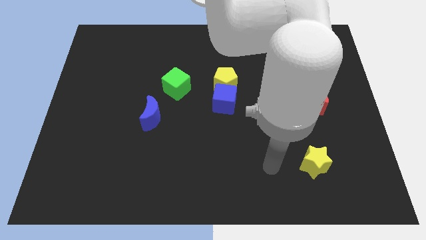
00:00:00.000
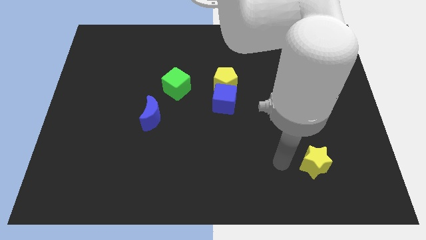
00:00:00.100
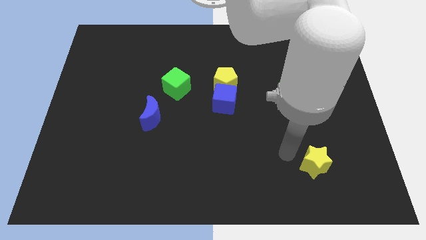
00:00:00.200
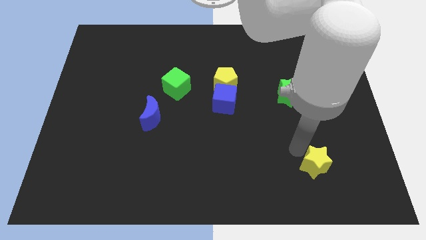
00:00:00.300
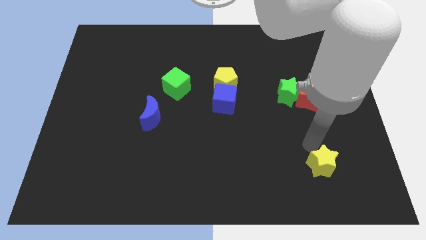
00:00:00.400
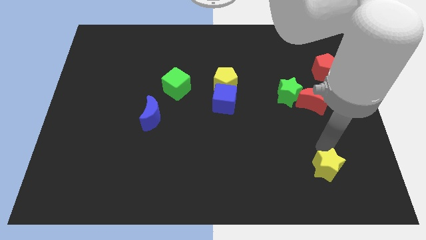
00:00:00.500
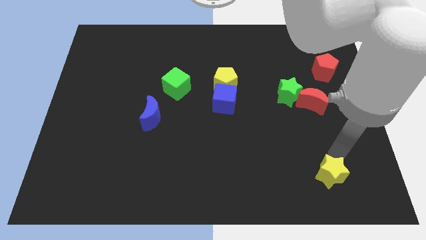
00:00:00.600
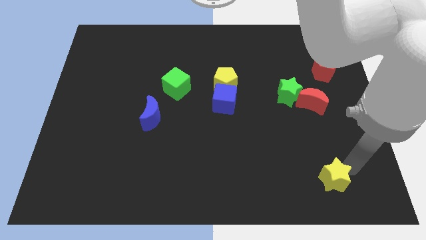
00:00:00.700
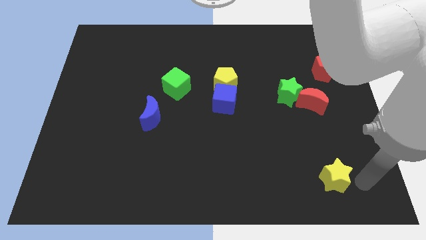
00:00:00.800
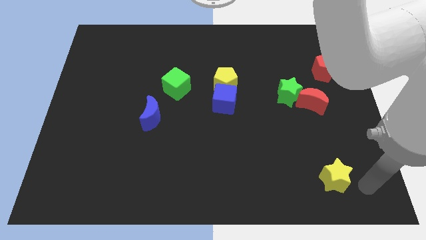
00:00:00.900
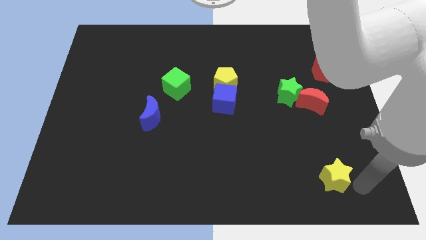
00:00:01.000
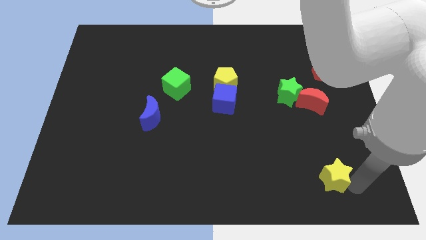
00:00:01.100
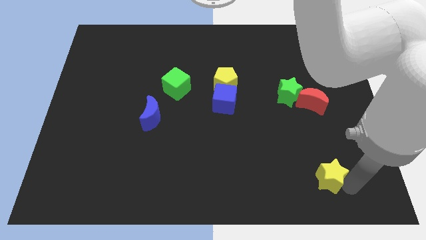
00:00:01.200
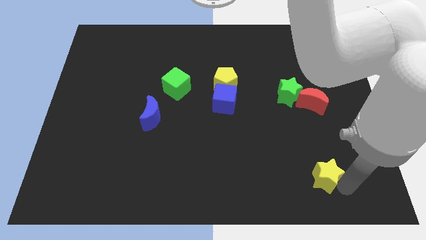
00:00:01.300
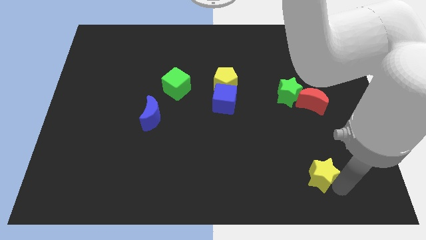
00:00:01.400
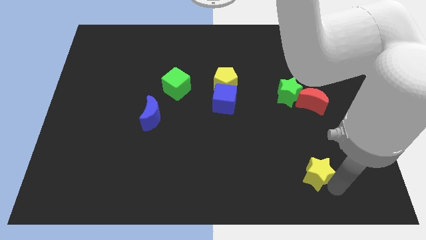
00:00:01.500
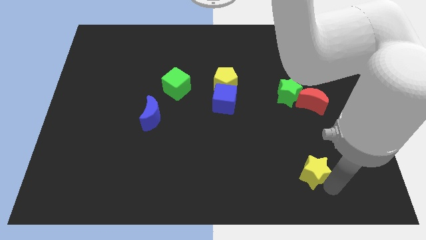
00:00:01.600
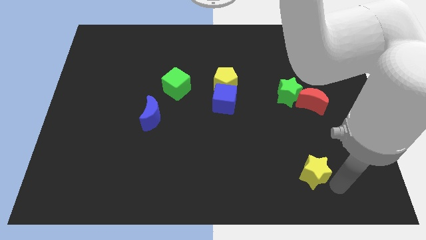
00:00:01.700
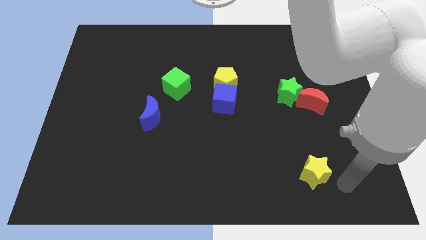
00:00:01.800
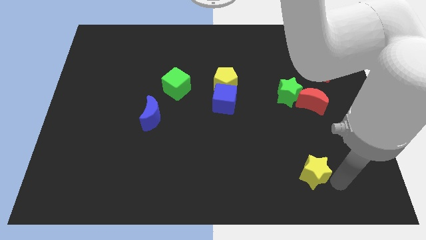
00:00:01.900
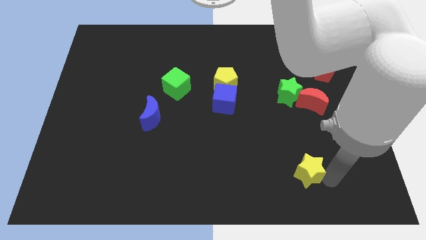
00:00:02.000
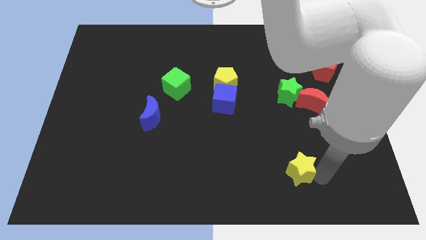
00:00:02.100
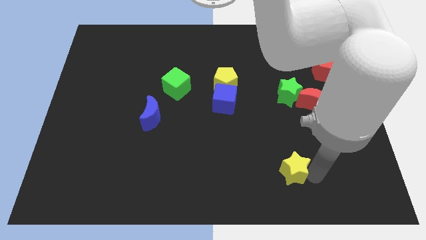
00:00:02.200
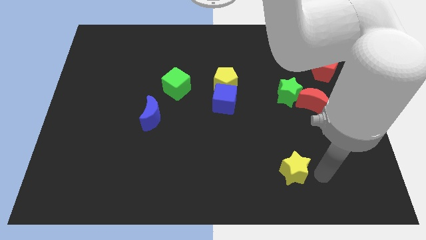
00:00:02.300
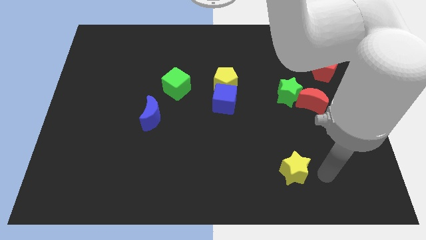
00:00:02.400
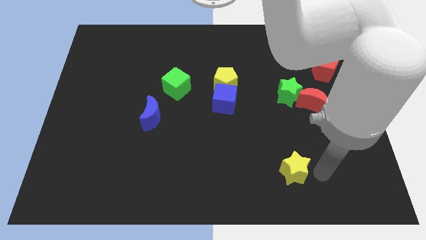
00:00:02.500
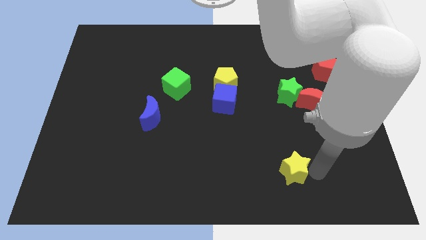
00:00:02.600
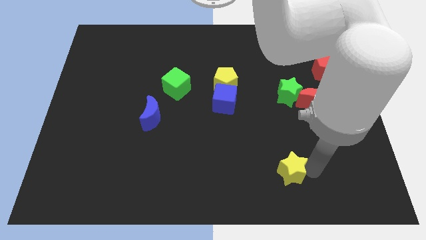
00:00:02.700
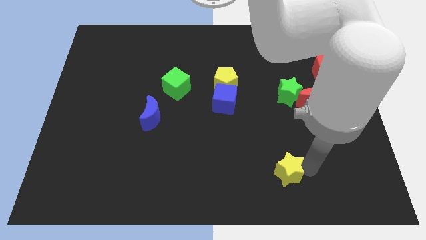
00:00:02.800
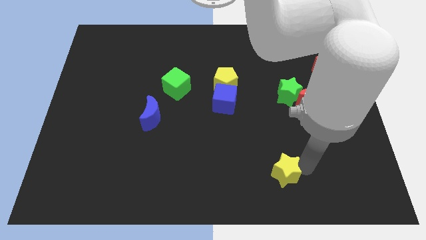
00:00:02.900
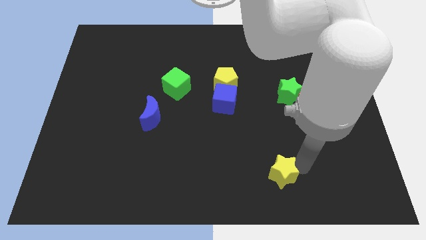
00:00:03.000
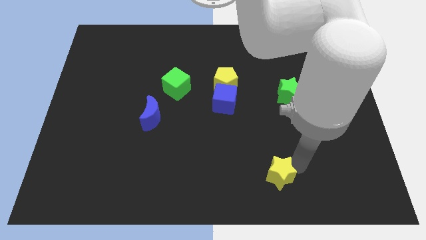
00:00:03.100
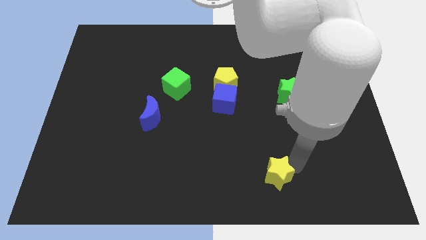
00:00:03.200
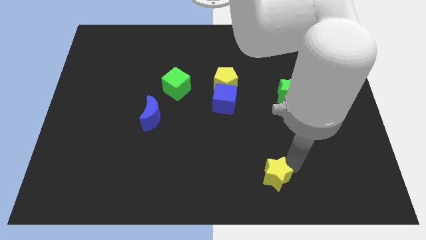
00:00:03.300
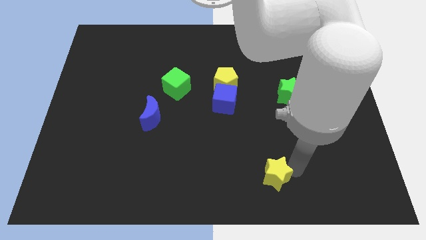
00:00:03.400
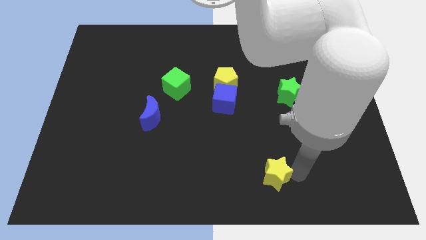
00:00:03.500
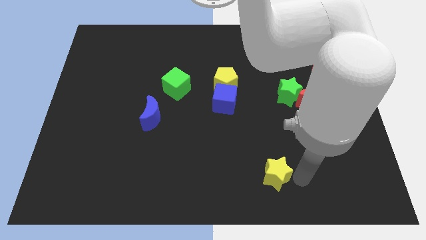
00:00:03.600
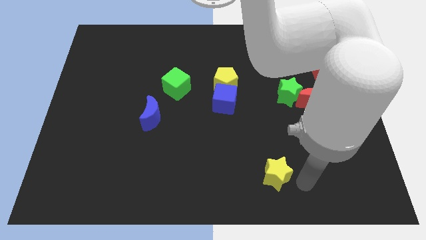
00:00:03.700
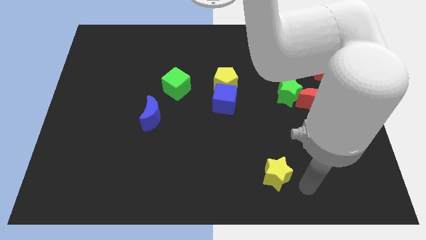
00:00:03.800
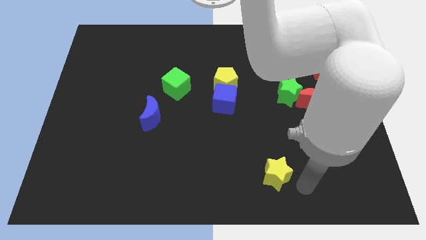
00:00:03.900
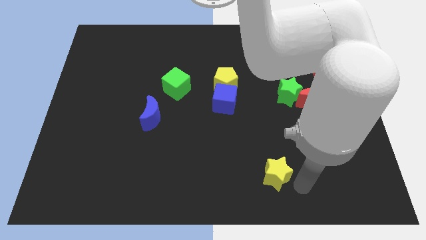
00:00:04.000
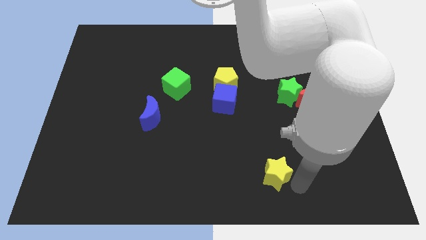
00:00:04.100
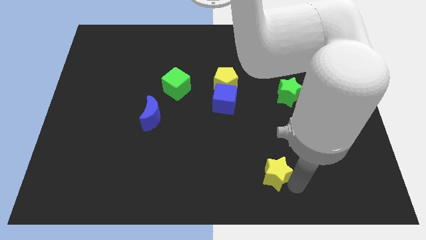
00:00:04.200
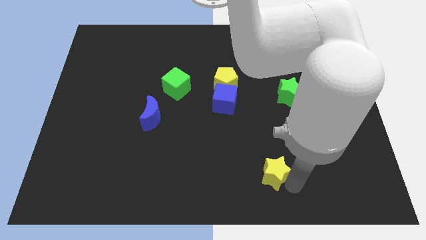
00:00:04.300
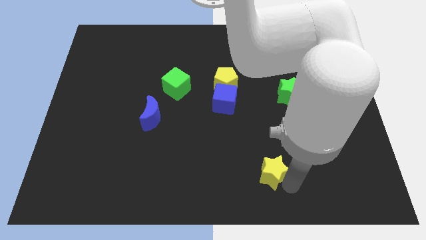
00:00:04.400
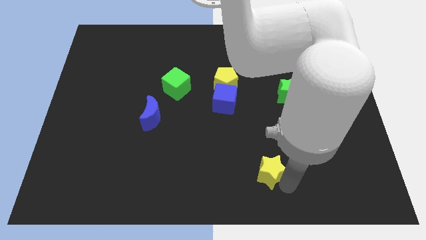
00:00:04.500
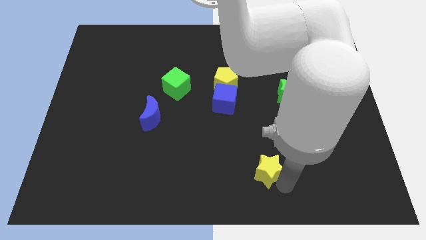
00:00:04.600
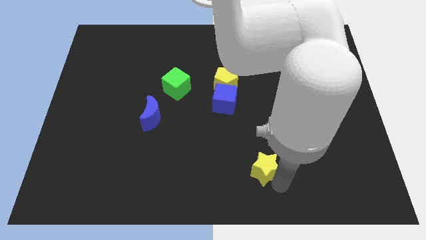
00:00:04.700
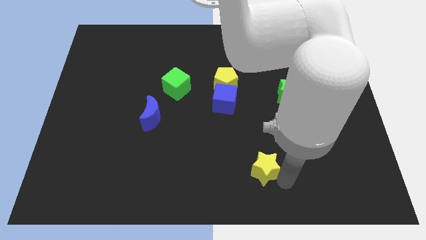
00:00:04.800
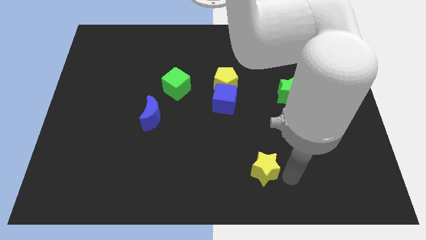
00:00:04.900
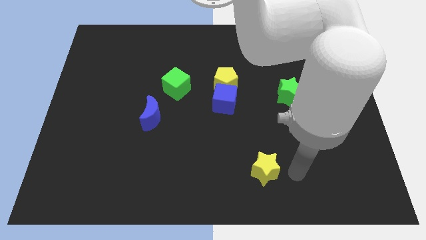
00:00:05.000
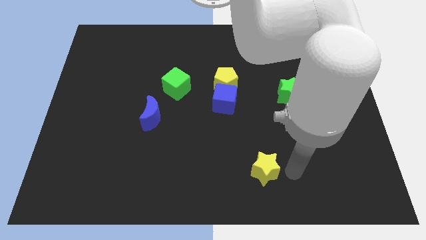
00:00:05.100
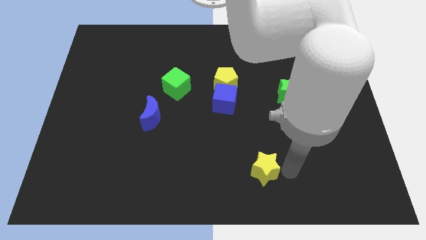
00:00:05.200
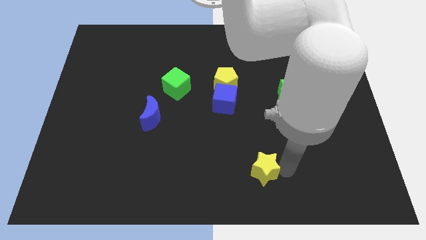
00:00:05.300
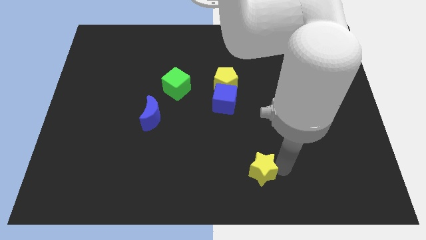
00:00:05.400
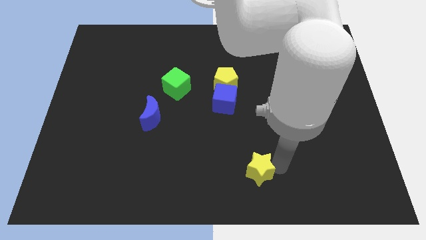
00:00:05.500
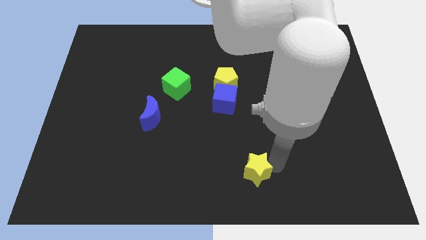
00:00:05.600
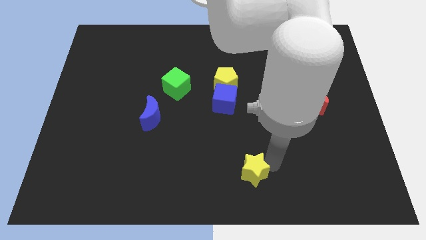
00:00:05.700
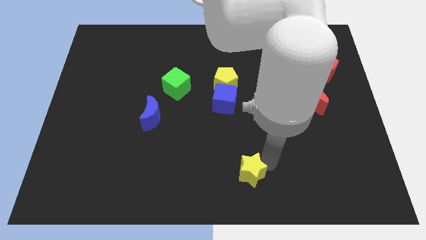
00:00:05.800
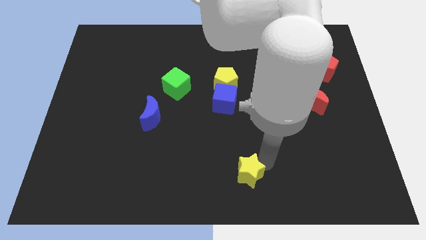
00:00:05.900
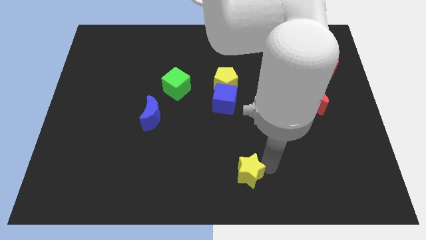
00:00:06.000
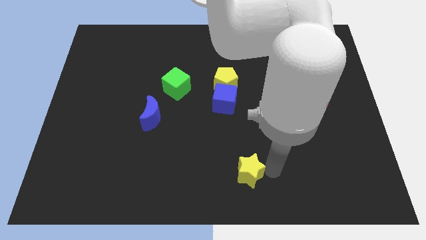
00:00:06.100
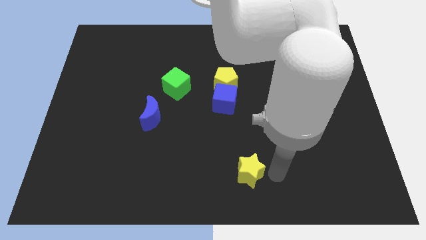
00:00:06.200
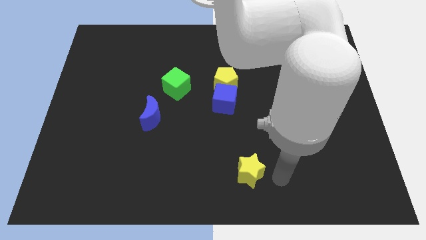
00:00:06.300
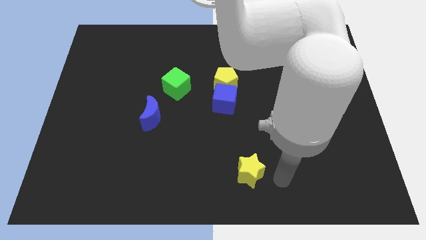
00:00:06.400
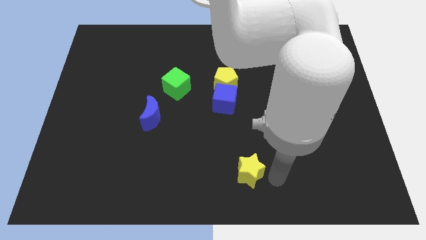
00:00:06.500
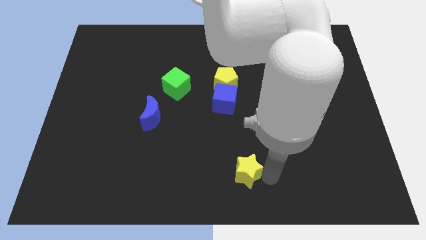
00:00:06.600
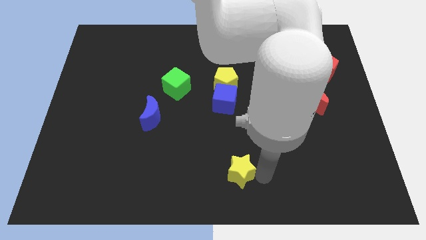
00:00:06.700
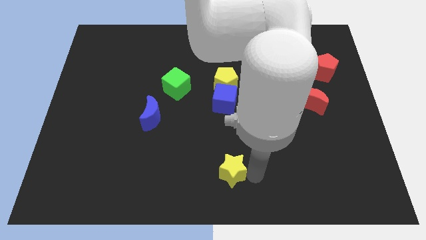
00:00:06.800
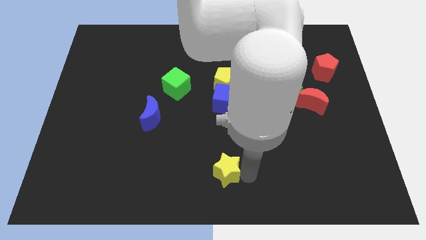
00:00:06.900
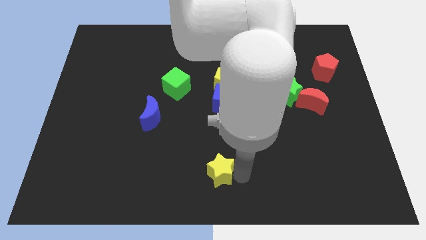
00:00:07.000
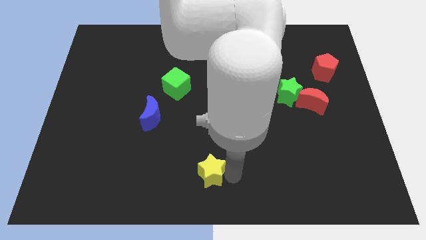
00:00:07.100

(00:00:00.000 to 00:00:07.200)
push the yellow star left

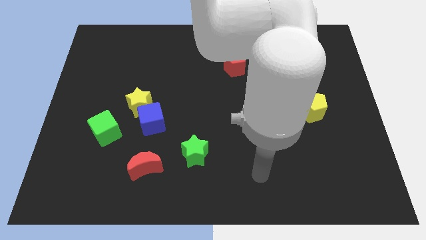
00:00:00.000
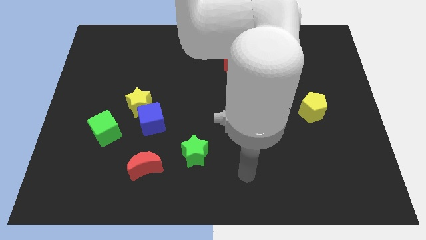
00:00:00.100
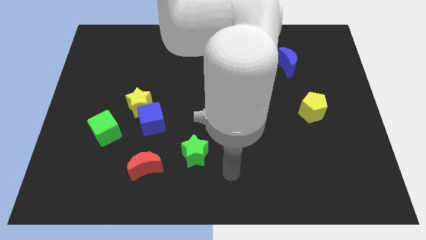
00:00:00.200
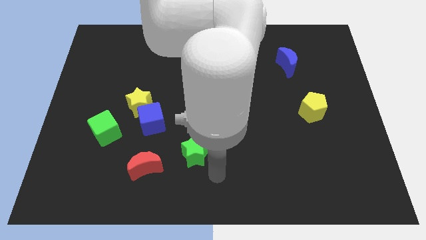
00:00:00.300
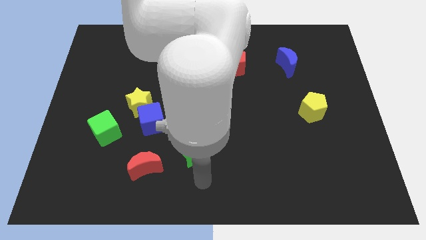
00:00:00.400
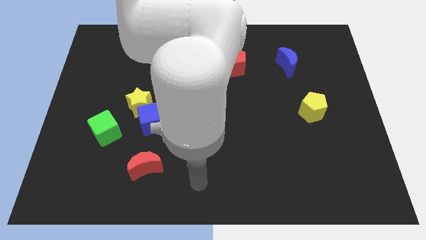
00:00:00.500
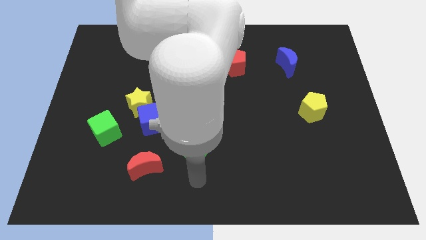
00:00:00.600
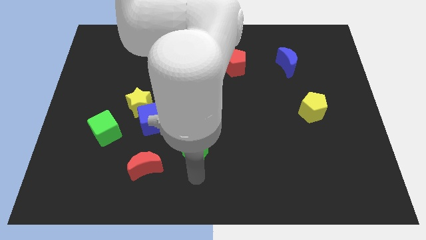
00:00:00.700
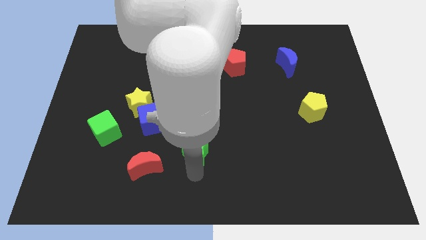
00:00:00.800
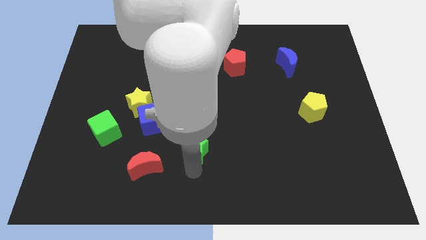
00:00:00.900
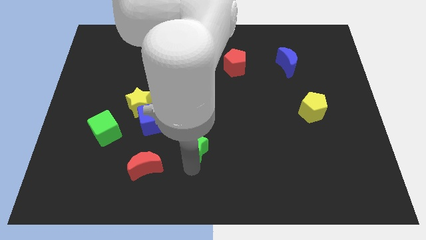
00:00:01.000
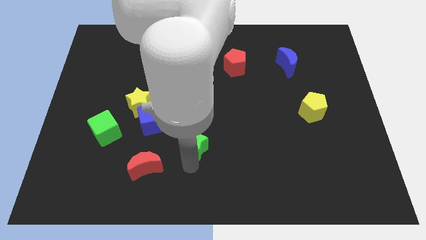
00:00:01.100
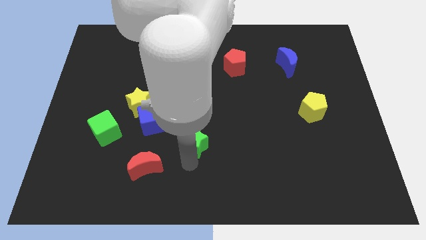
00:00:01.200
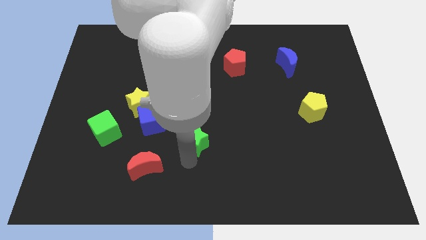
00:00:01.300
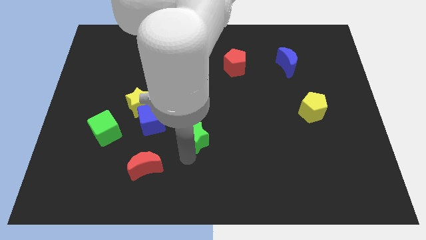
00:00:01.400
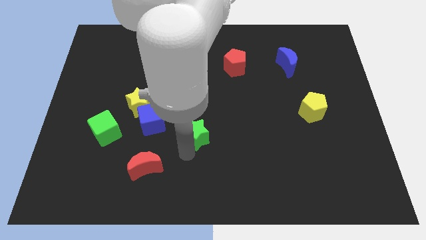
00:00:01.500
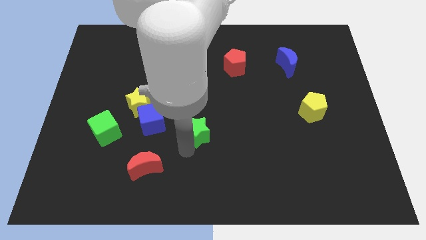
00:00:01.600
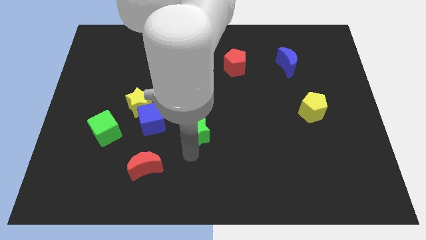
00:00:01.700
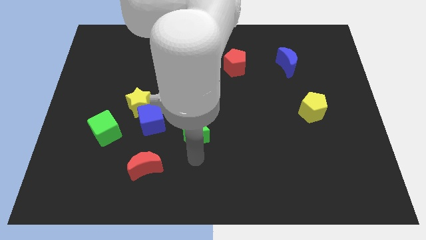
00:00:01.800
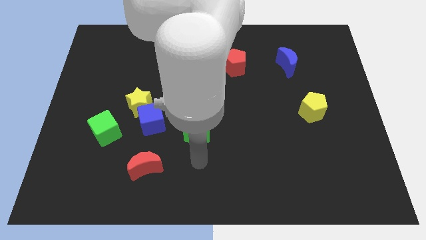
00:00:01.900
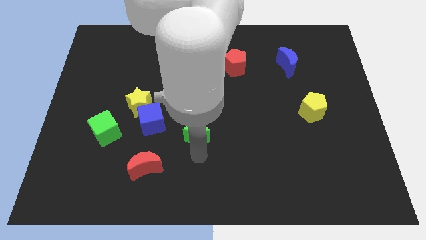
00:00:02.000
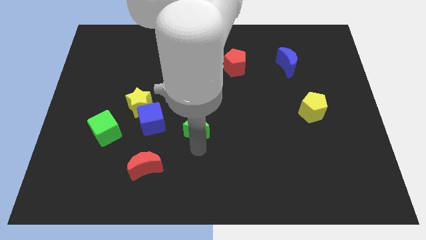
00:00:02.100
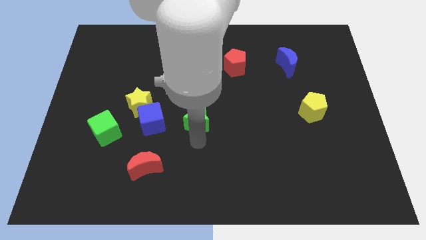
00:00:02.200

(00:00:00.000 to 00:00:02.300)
slide the green star upwards a little bit
